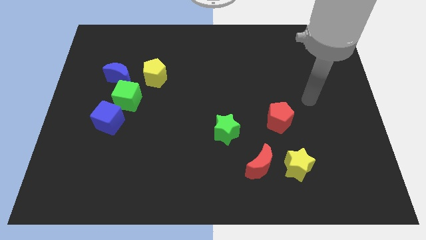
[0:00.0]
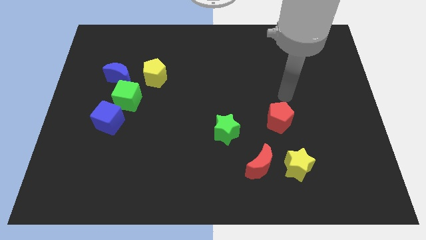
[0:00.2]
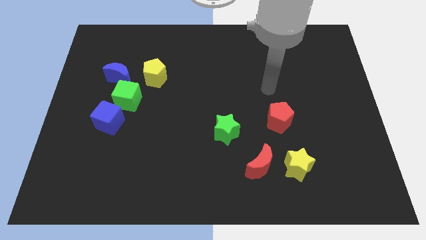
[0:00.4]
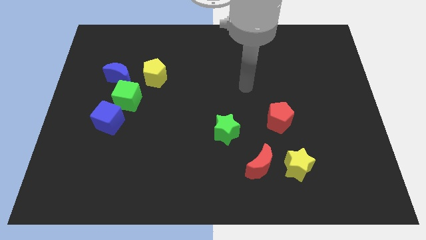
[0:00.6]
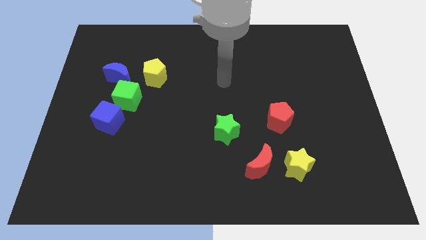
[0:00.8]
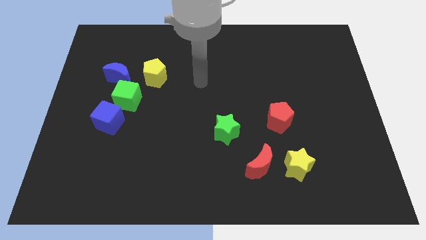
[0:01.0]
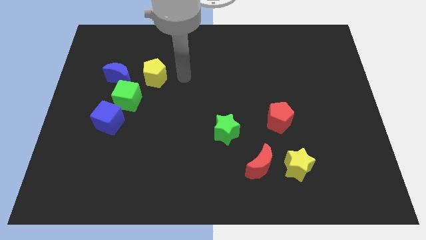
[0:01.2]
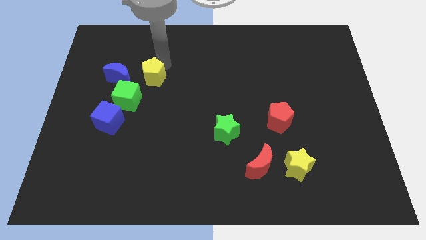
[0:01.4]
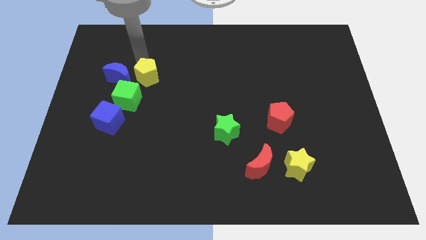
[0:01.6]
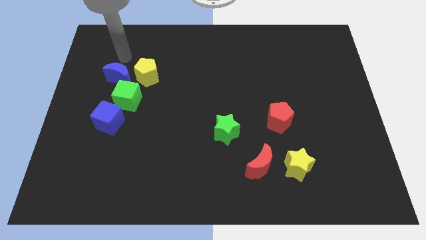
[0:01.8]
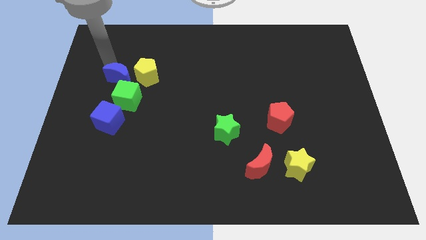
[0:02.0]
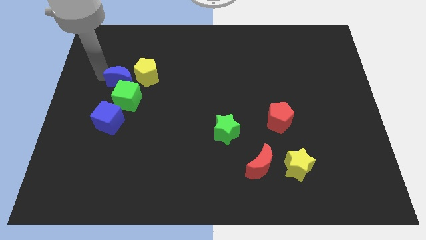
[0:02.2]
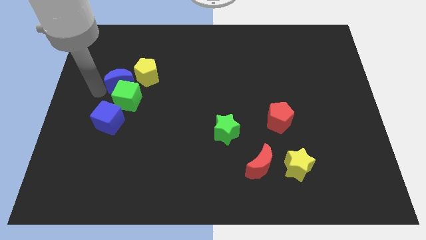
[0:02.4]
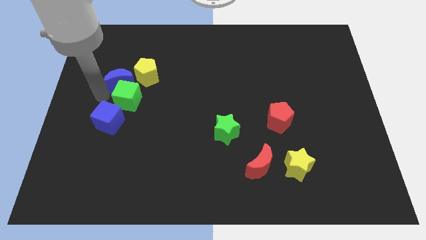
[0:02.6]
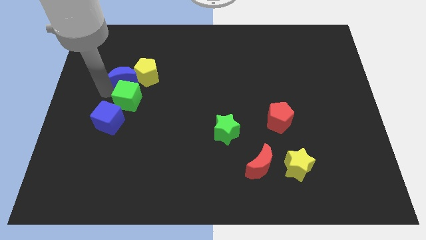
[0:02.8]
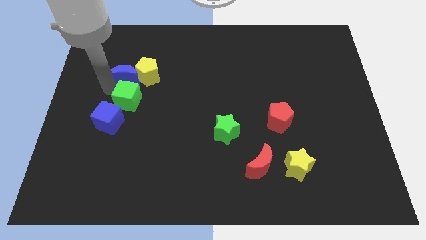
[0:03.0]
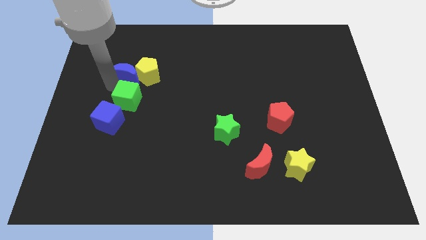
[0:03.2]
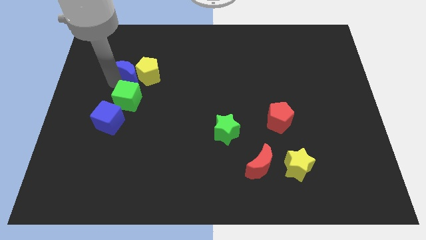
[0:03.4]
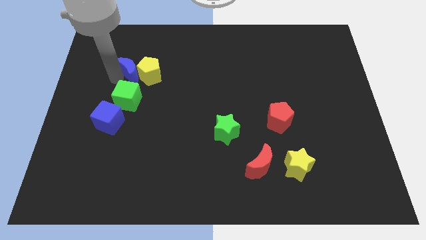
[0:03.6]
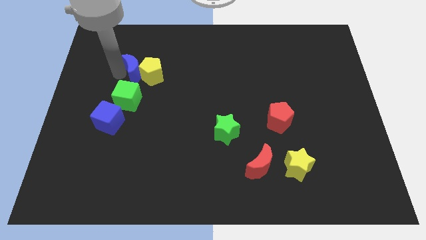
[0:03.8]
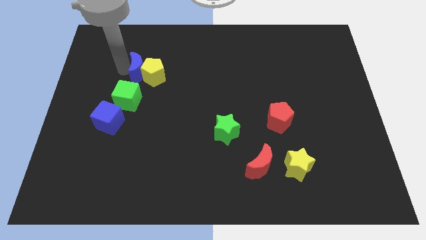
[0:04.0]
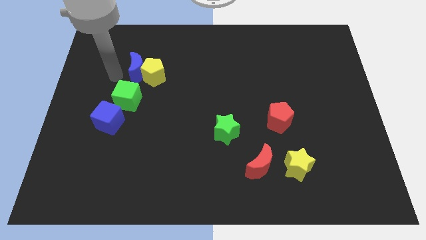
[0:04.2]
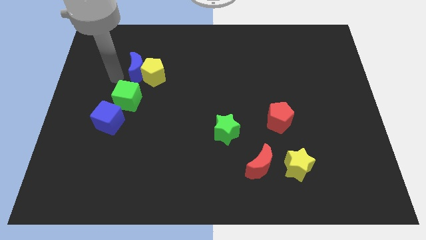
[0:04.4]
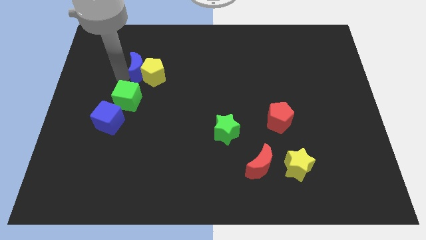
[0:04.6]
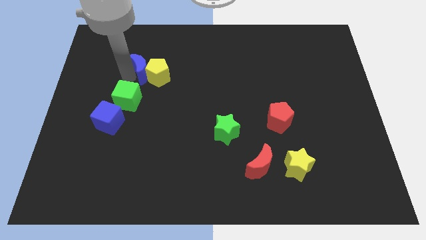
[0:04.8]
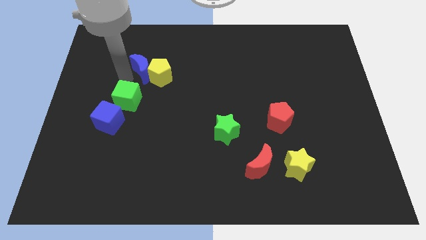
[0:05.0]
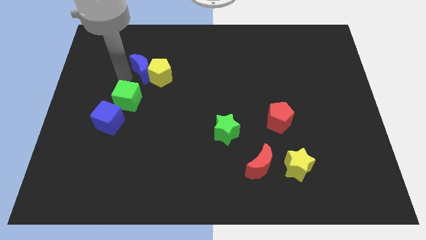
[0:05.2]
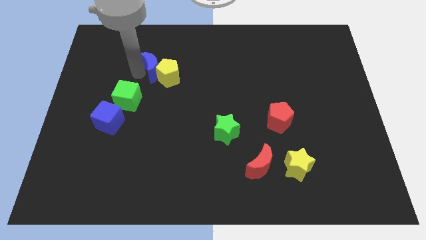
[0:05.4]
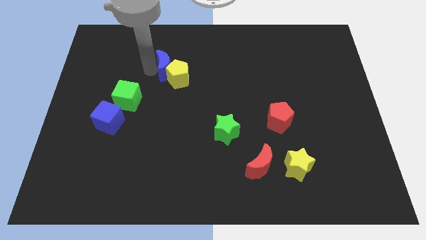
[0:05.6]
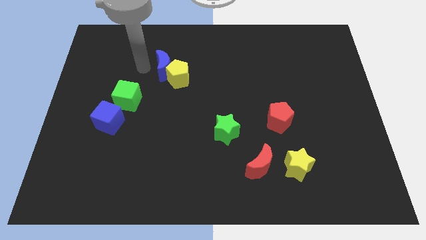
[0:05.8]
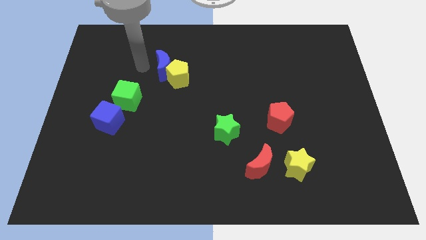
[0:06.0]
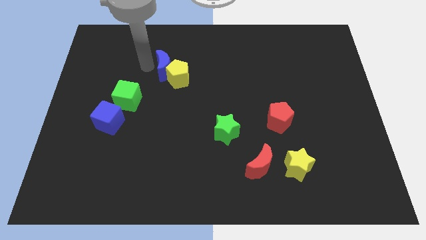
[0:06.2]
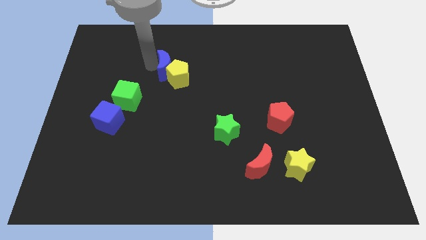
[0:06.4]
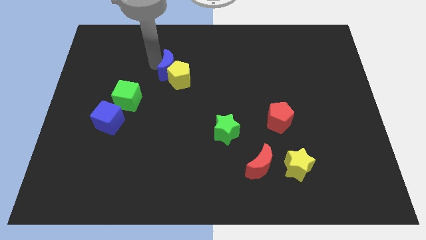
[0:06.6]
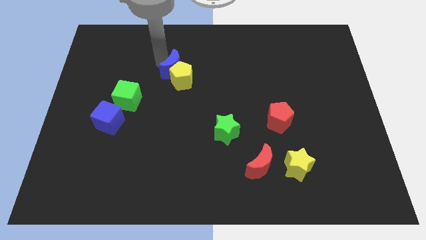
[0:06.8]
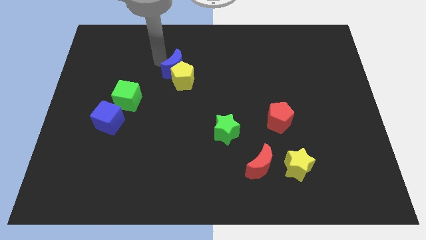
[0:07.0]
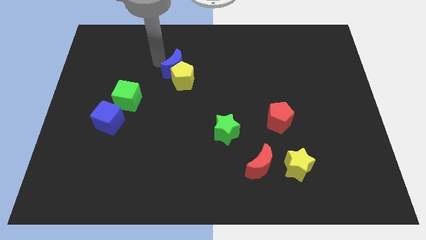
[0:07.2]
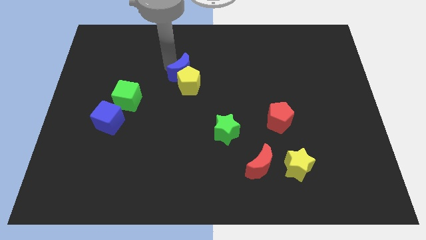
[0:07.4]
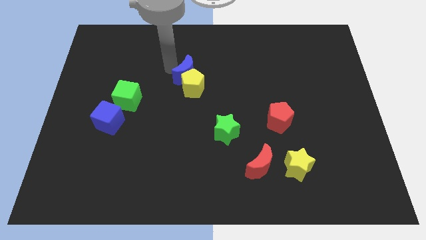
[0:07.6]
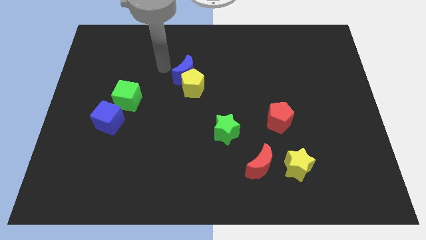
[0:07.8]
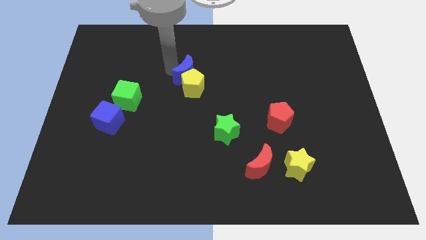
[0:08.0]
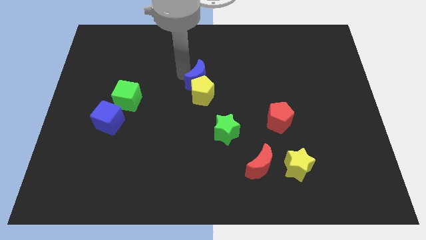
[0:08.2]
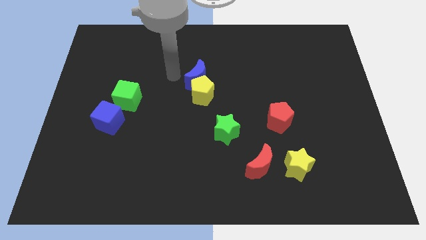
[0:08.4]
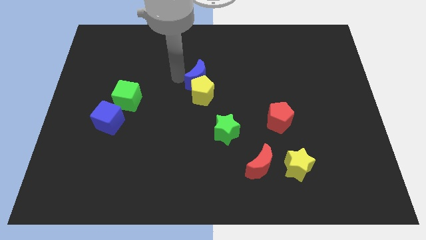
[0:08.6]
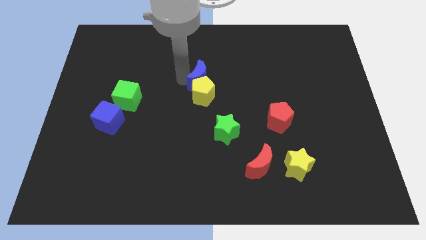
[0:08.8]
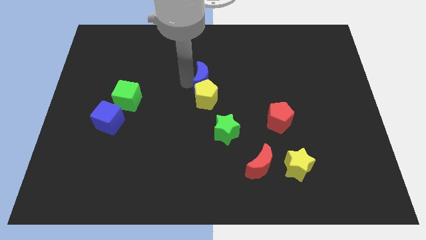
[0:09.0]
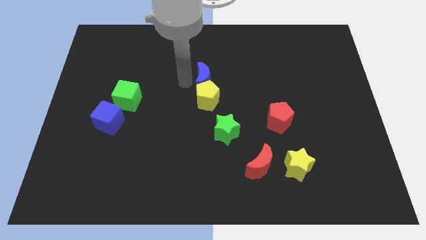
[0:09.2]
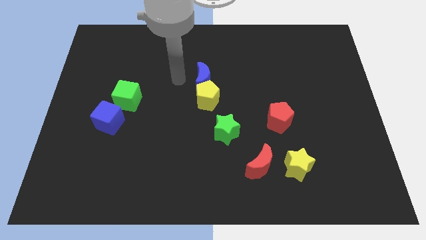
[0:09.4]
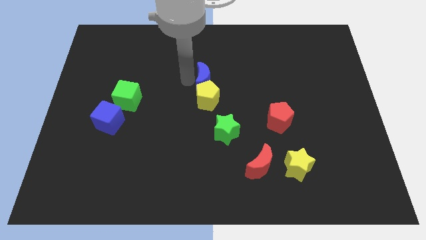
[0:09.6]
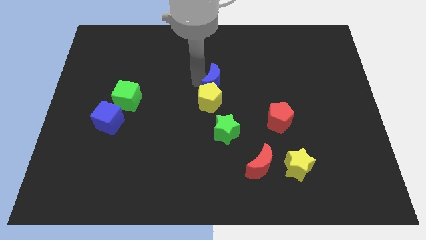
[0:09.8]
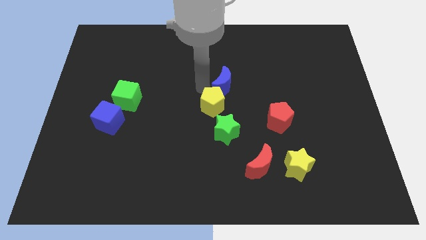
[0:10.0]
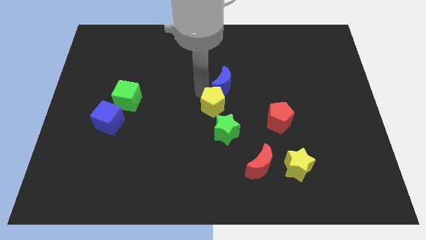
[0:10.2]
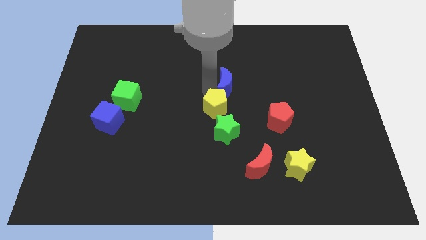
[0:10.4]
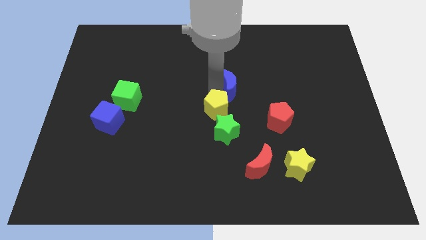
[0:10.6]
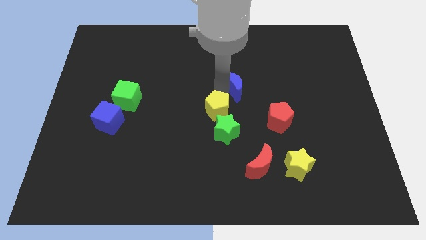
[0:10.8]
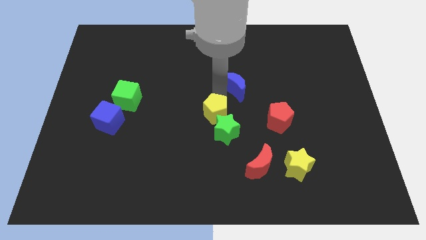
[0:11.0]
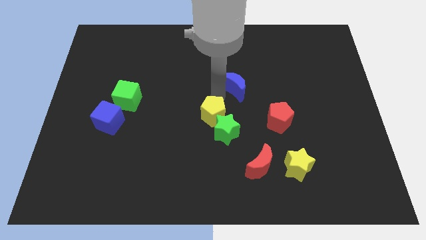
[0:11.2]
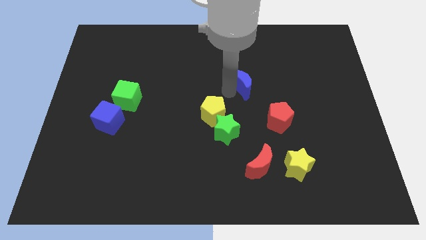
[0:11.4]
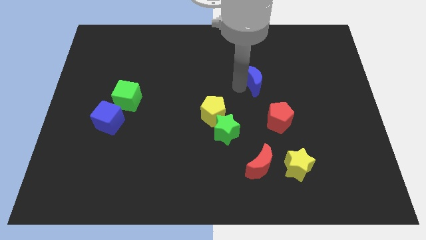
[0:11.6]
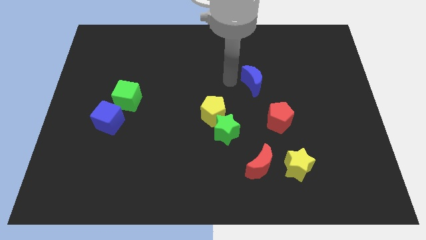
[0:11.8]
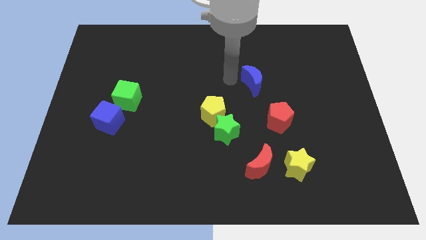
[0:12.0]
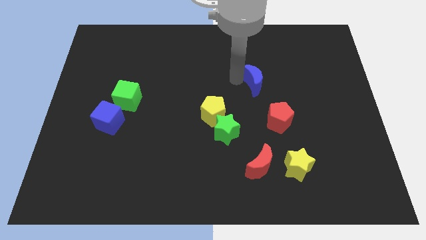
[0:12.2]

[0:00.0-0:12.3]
slide the blue moon to the top of the red pentagon

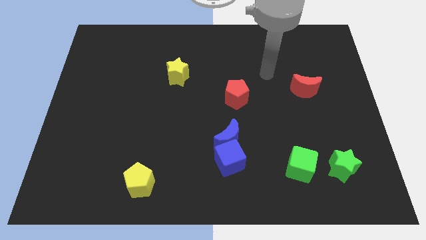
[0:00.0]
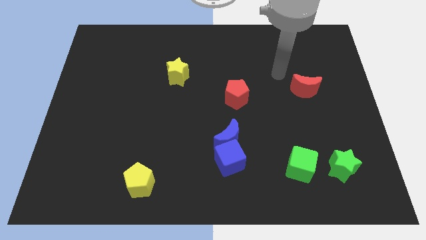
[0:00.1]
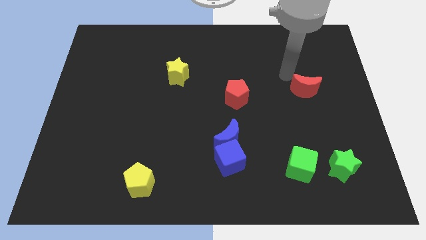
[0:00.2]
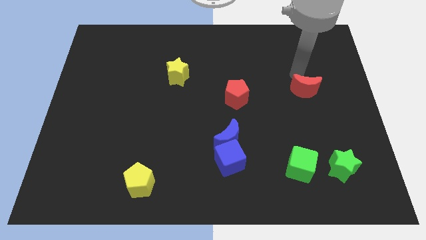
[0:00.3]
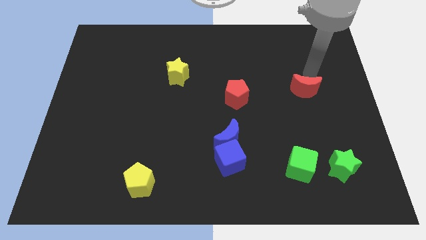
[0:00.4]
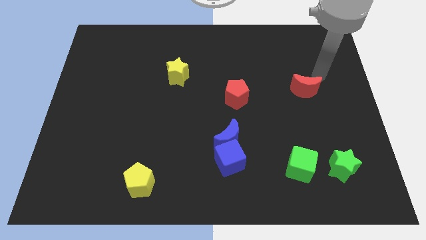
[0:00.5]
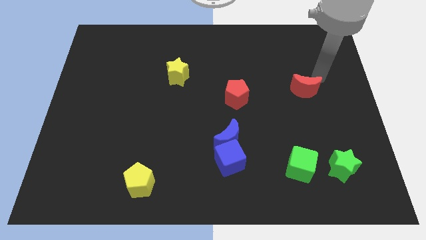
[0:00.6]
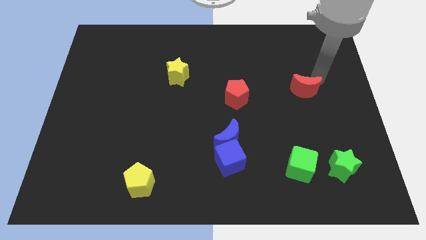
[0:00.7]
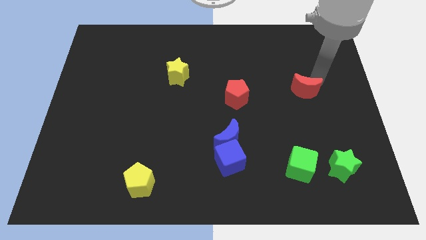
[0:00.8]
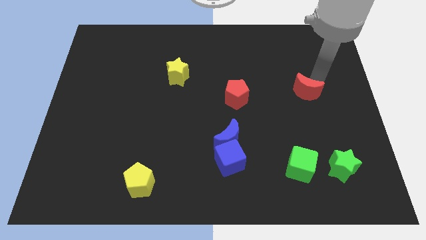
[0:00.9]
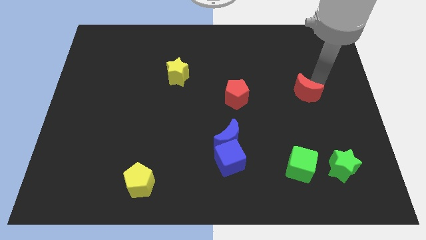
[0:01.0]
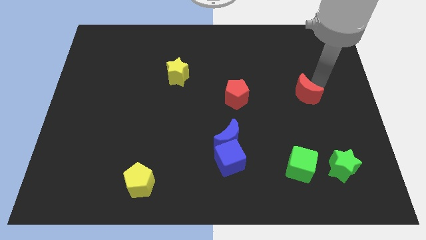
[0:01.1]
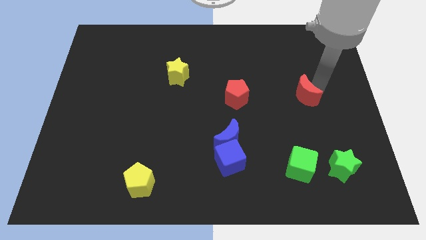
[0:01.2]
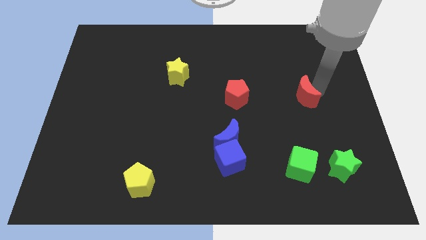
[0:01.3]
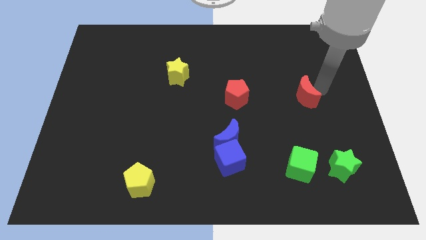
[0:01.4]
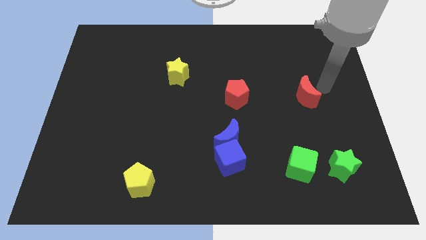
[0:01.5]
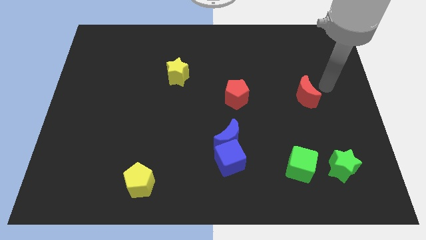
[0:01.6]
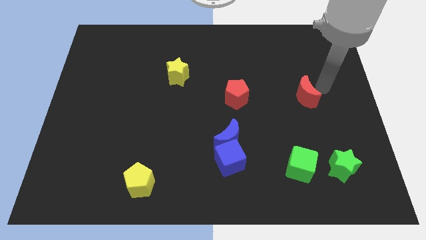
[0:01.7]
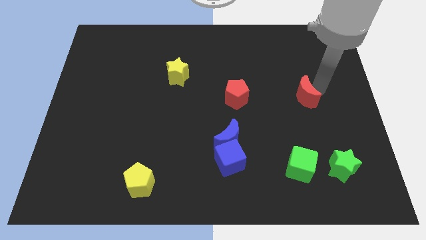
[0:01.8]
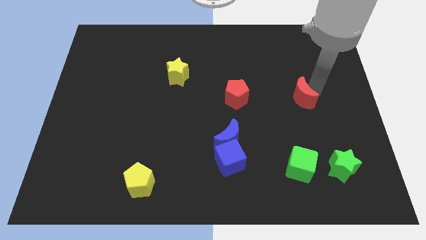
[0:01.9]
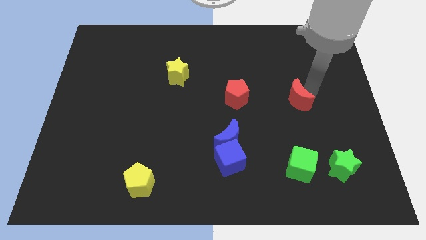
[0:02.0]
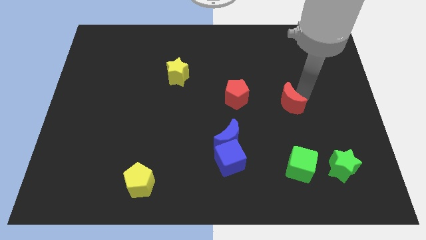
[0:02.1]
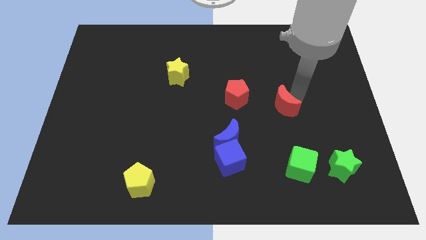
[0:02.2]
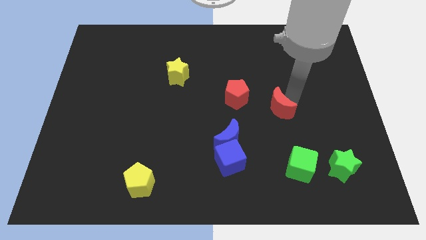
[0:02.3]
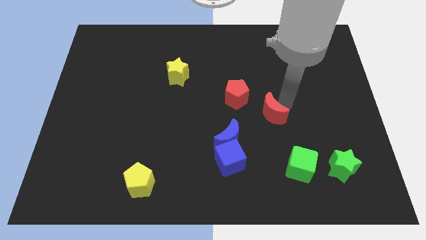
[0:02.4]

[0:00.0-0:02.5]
move the red moon to the top right side of the blue moon
